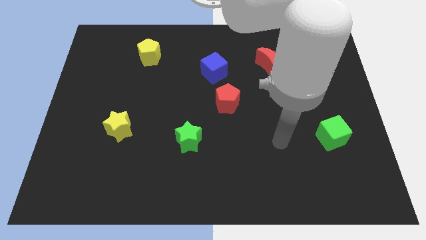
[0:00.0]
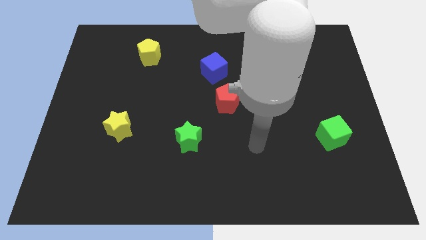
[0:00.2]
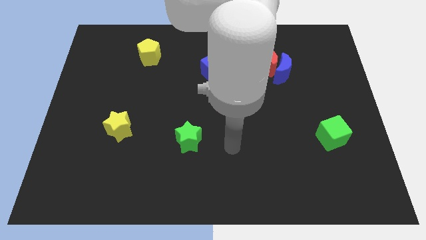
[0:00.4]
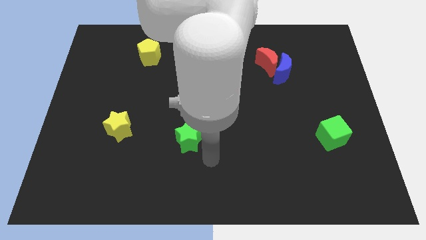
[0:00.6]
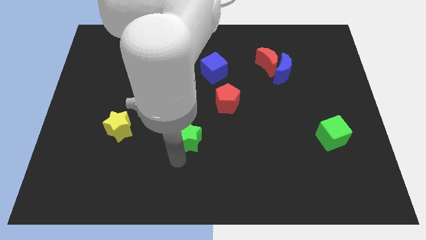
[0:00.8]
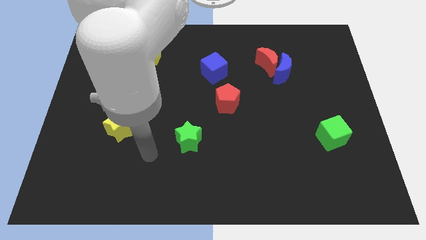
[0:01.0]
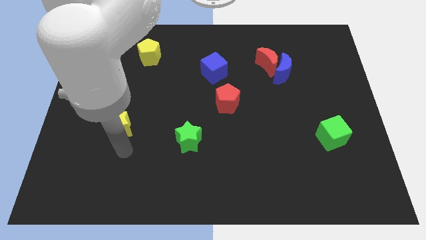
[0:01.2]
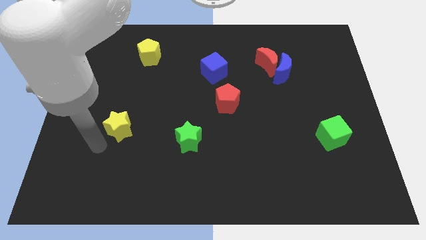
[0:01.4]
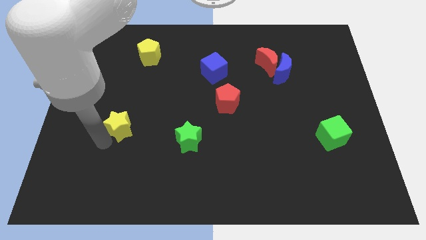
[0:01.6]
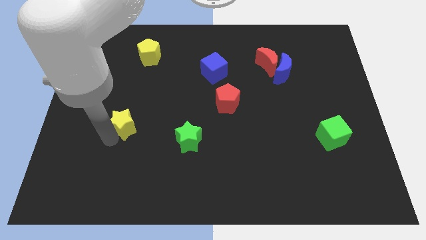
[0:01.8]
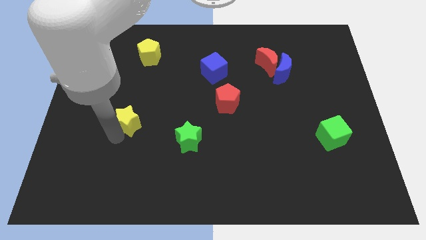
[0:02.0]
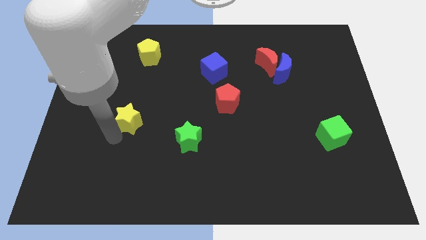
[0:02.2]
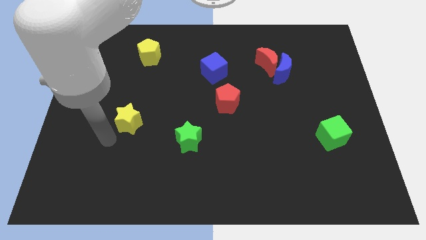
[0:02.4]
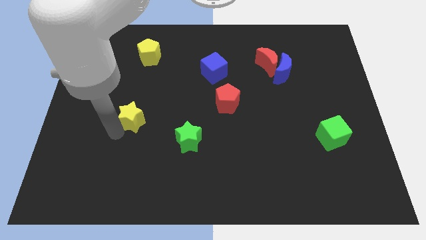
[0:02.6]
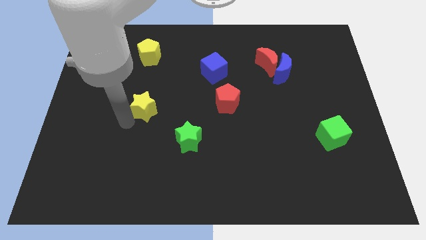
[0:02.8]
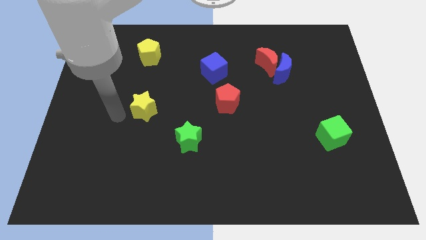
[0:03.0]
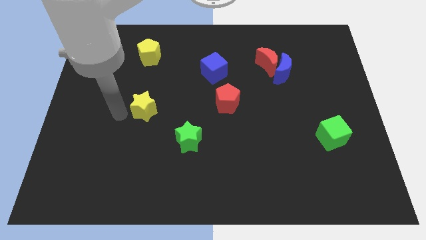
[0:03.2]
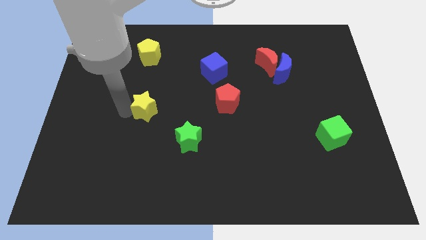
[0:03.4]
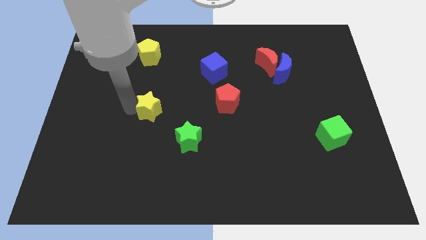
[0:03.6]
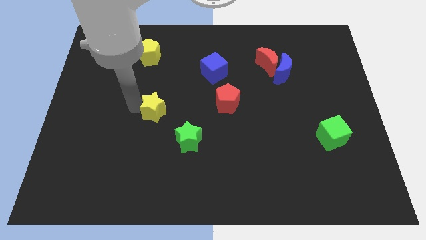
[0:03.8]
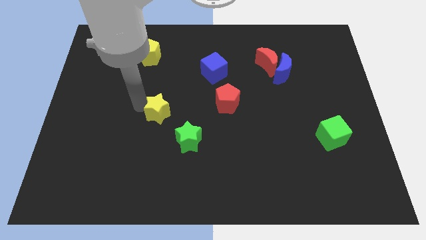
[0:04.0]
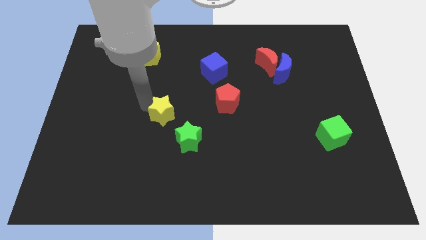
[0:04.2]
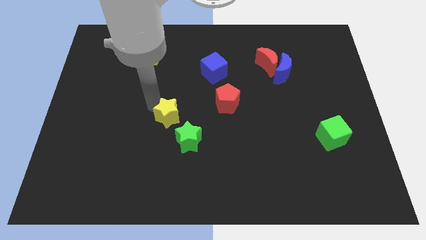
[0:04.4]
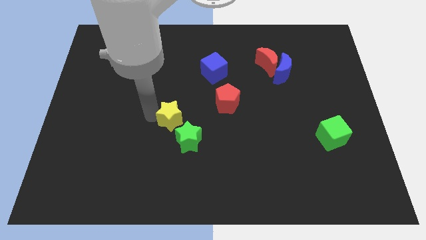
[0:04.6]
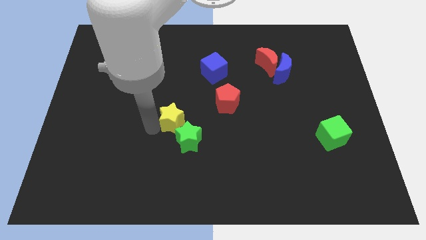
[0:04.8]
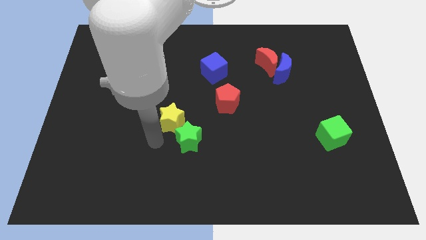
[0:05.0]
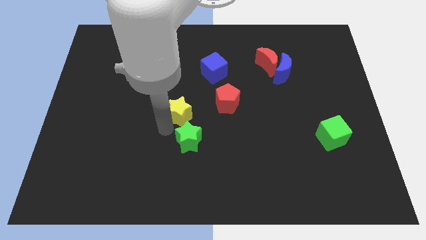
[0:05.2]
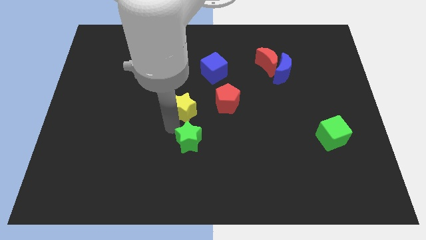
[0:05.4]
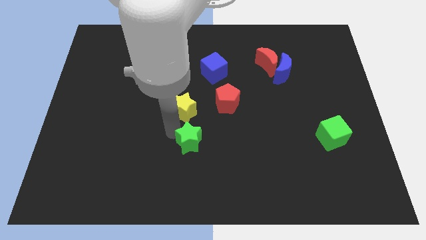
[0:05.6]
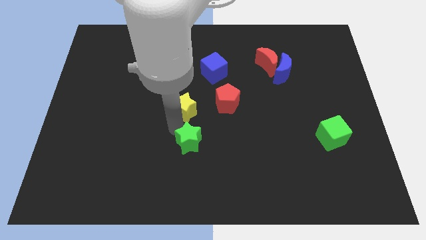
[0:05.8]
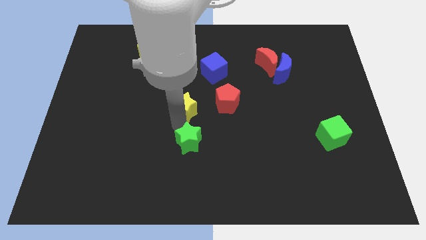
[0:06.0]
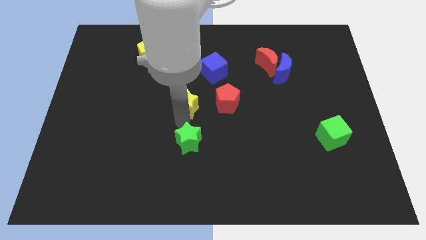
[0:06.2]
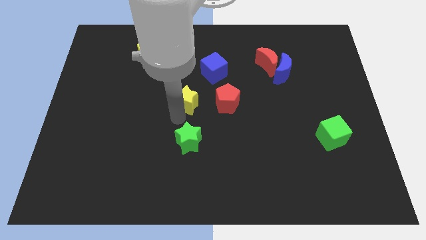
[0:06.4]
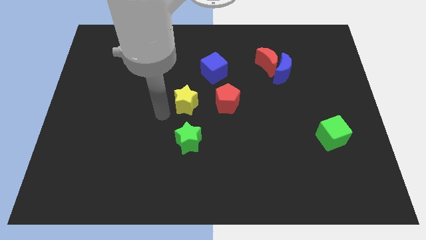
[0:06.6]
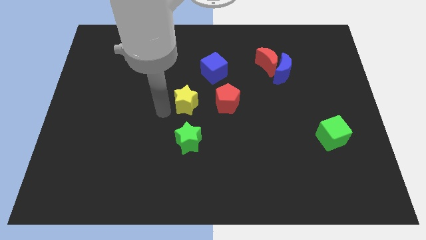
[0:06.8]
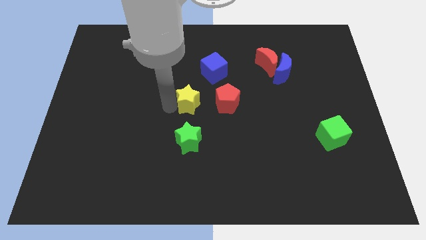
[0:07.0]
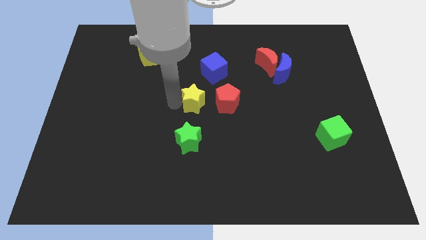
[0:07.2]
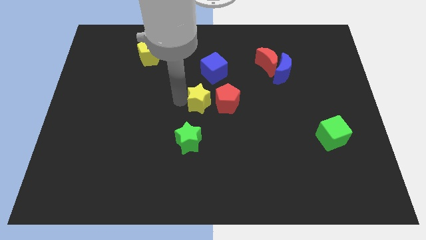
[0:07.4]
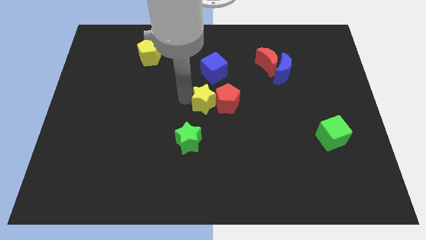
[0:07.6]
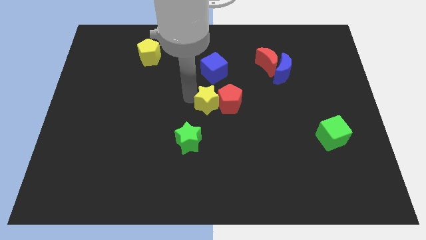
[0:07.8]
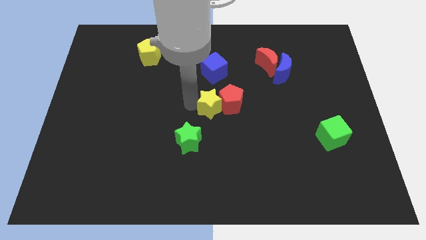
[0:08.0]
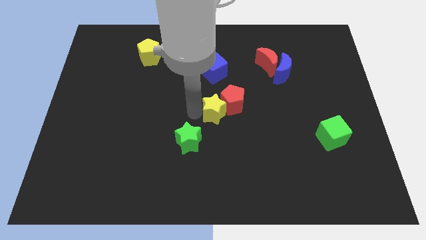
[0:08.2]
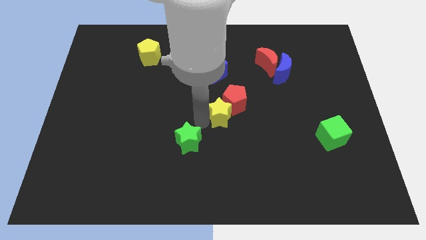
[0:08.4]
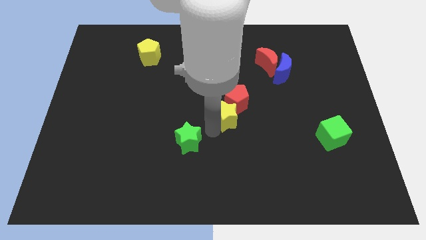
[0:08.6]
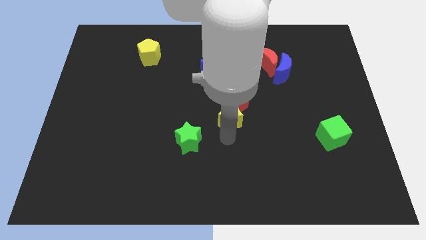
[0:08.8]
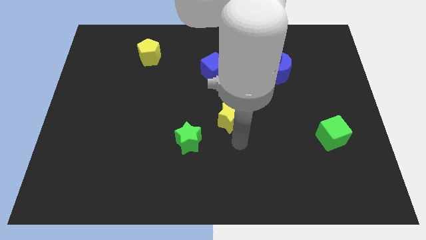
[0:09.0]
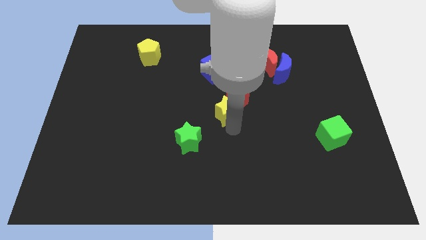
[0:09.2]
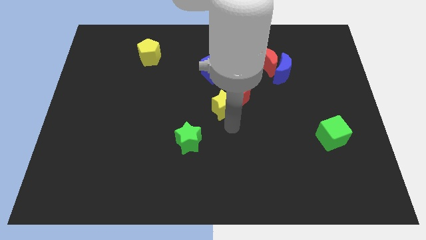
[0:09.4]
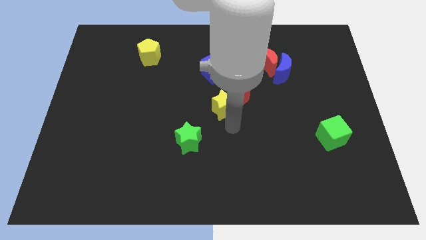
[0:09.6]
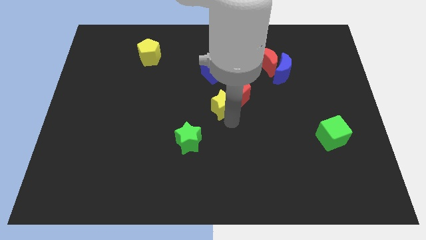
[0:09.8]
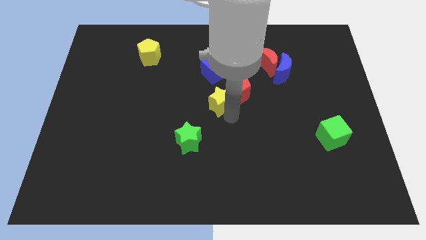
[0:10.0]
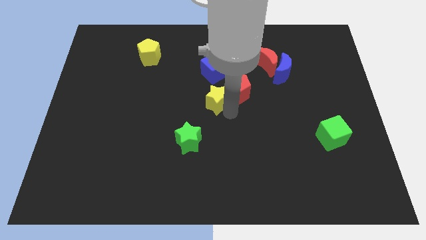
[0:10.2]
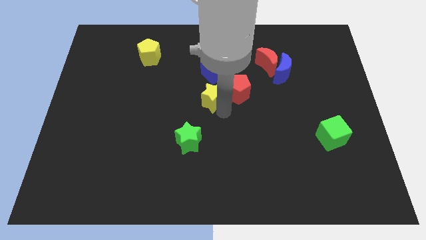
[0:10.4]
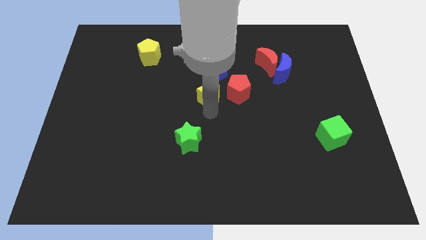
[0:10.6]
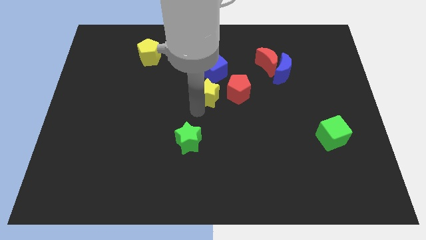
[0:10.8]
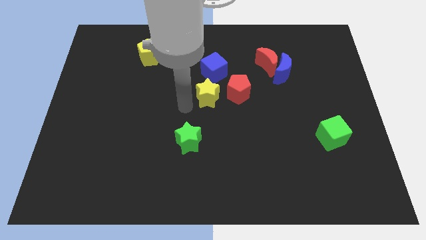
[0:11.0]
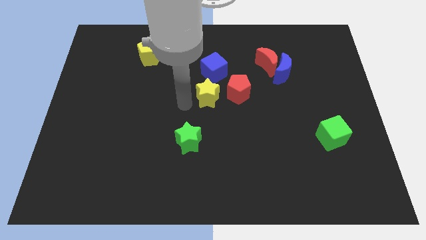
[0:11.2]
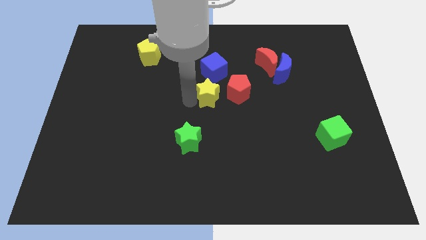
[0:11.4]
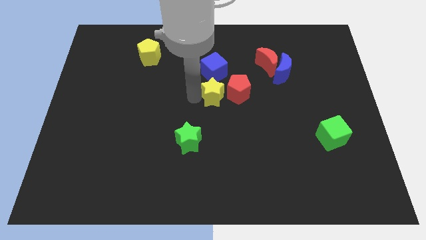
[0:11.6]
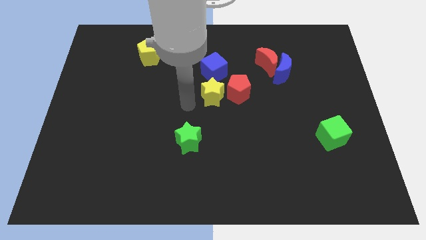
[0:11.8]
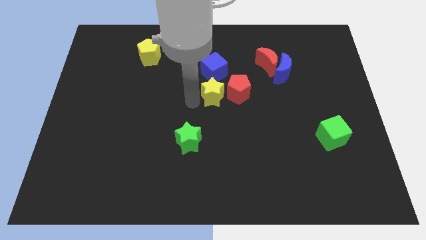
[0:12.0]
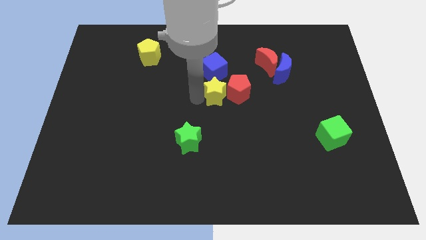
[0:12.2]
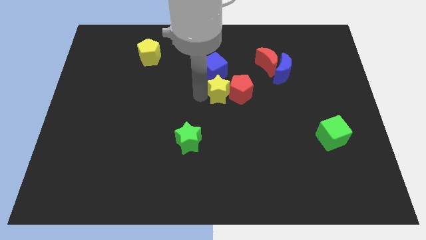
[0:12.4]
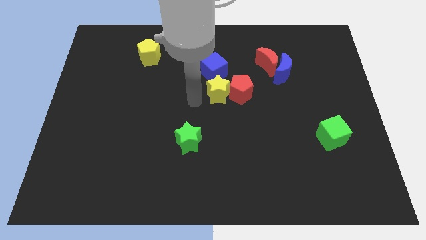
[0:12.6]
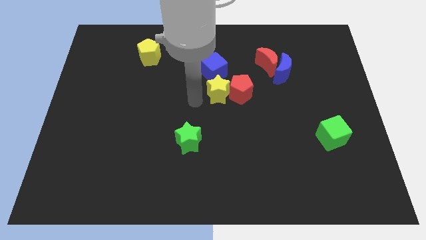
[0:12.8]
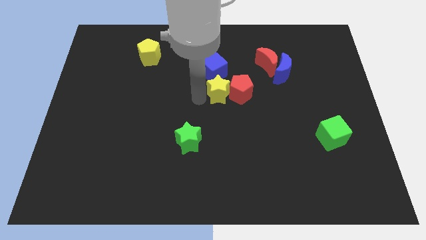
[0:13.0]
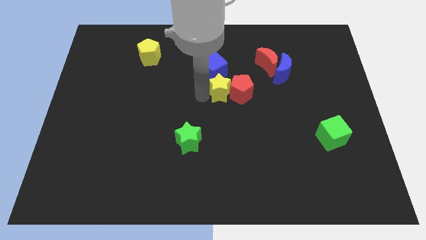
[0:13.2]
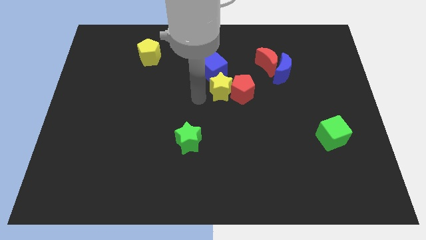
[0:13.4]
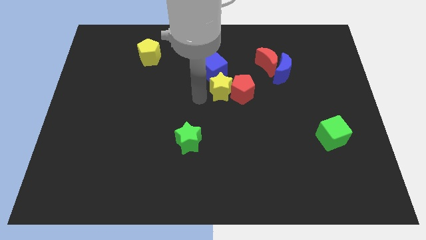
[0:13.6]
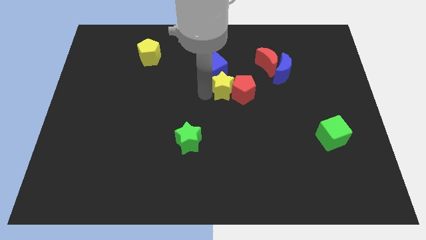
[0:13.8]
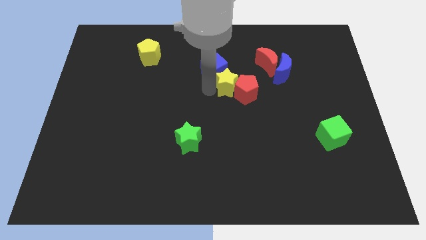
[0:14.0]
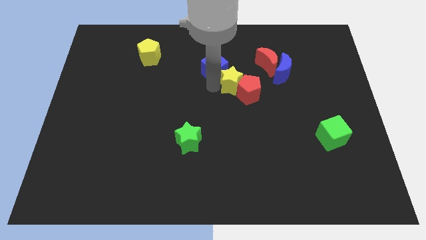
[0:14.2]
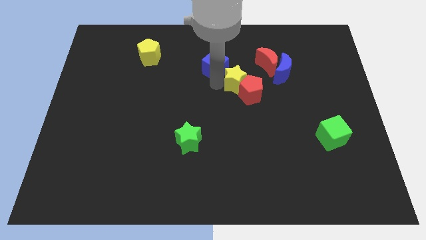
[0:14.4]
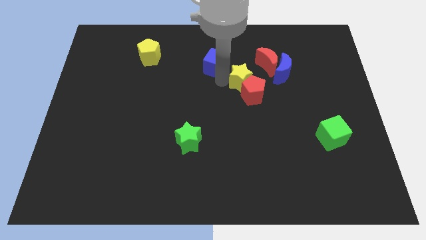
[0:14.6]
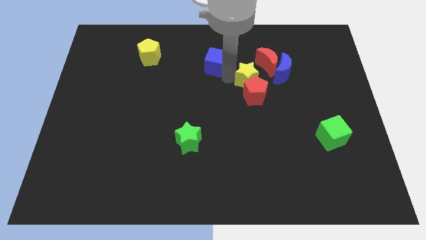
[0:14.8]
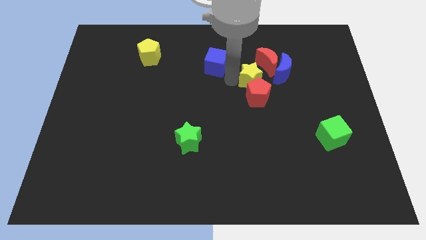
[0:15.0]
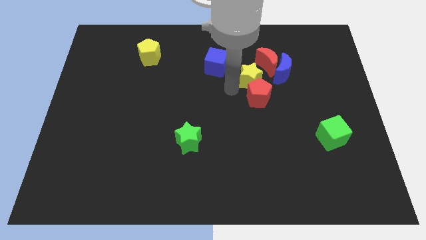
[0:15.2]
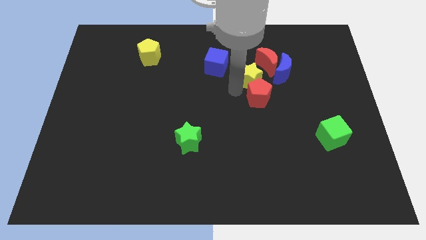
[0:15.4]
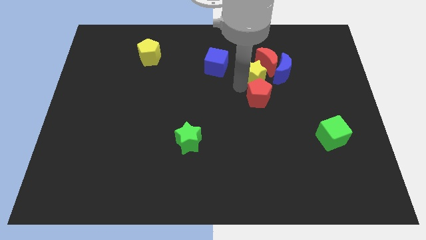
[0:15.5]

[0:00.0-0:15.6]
move the yellow star towards the red moon
